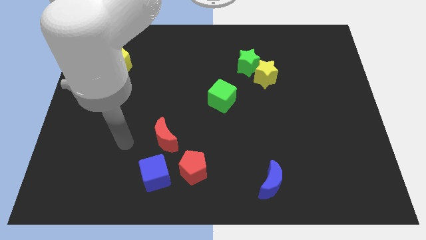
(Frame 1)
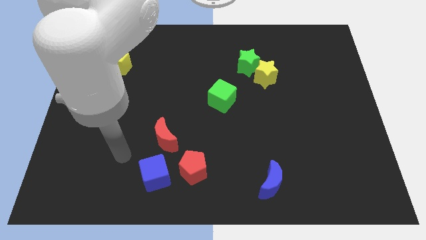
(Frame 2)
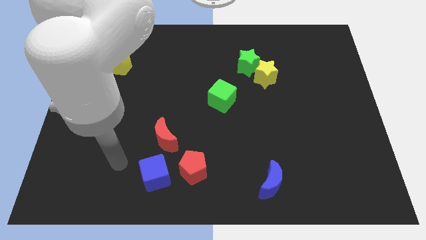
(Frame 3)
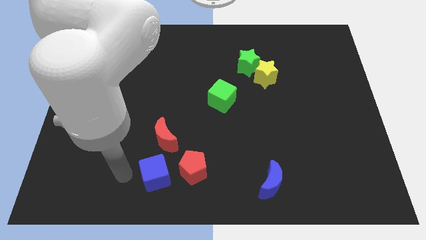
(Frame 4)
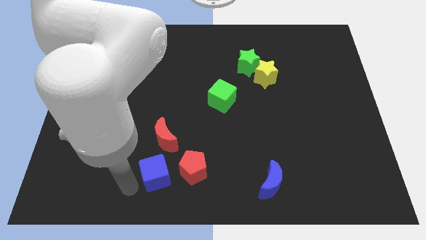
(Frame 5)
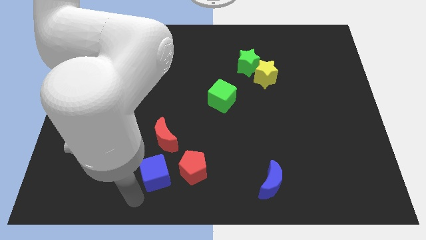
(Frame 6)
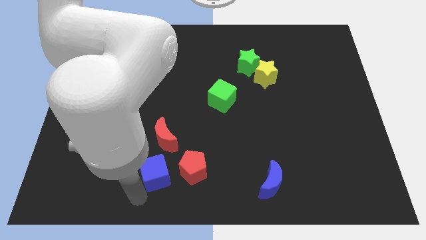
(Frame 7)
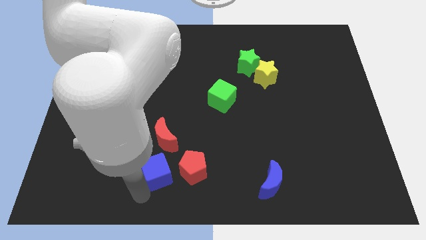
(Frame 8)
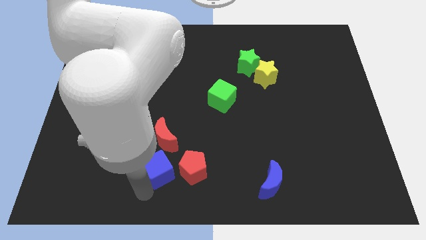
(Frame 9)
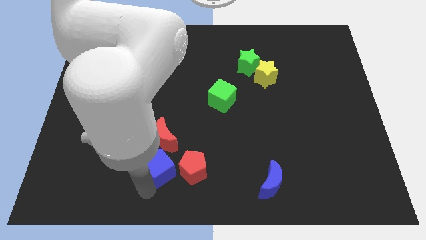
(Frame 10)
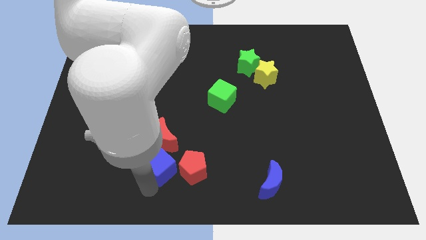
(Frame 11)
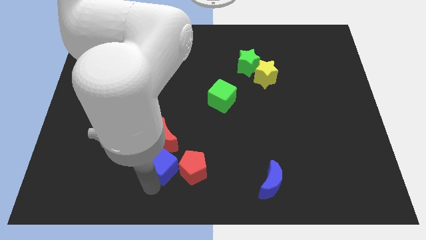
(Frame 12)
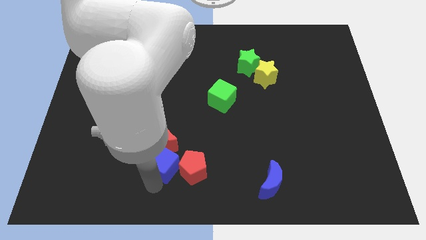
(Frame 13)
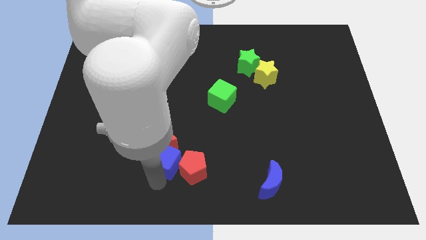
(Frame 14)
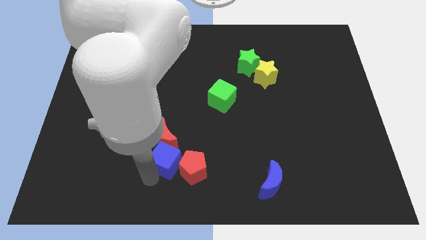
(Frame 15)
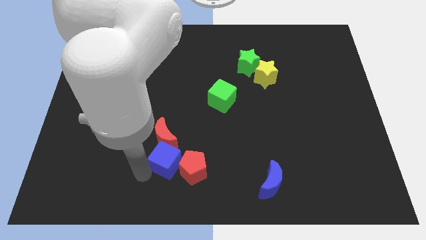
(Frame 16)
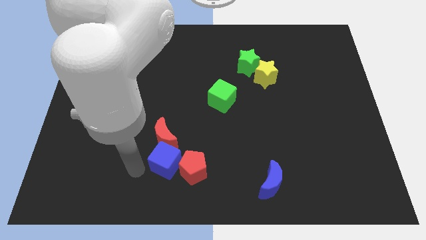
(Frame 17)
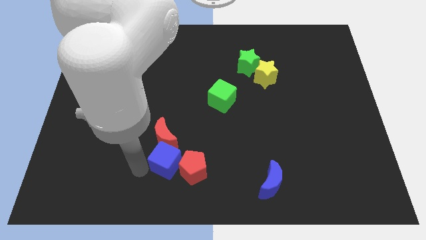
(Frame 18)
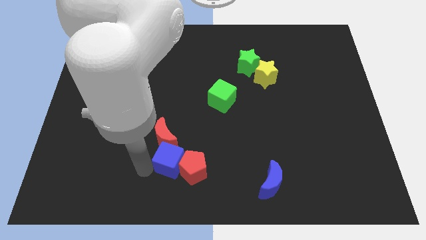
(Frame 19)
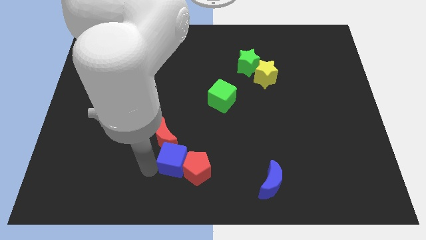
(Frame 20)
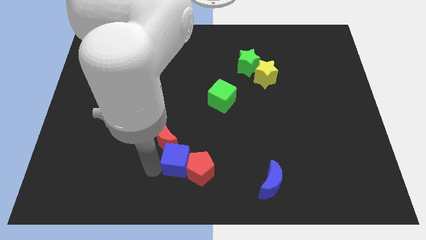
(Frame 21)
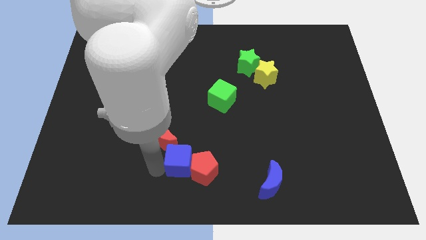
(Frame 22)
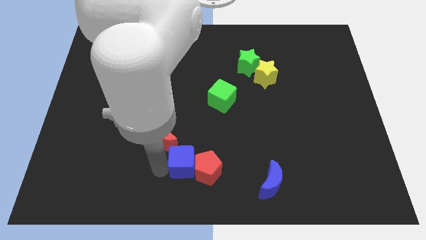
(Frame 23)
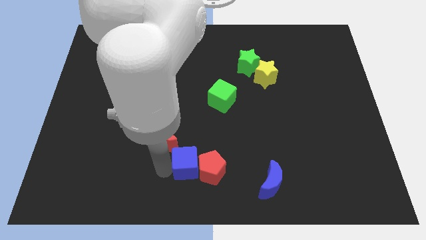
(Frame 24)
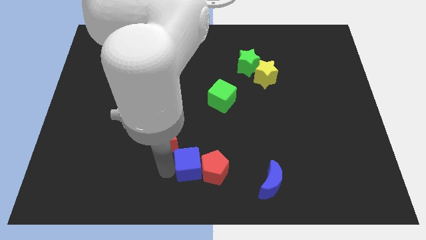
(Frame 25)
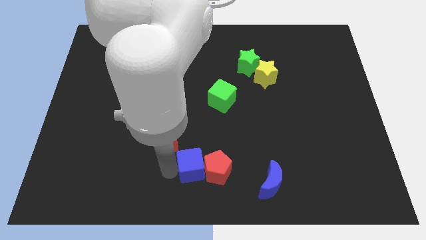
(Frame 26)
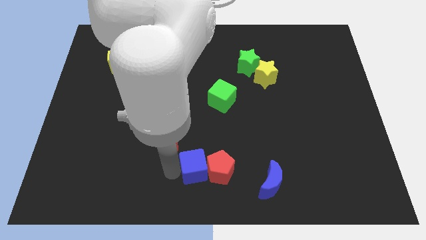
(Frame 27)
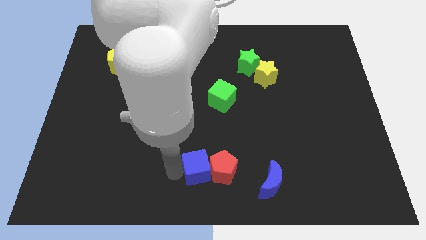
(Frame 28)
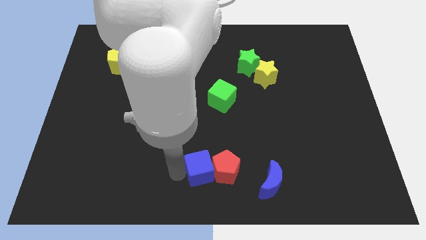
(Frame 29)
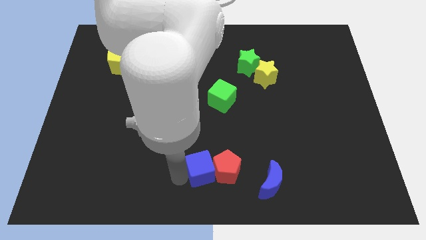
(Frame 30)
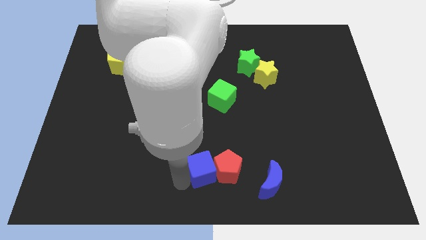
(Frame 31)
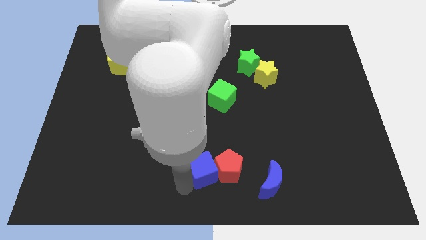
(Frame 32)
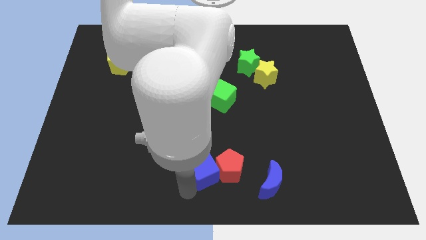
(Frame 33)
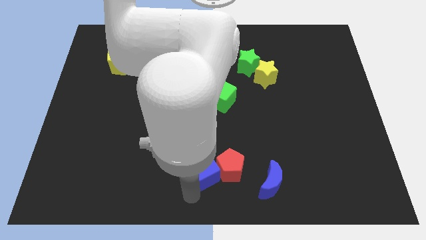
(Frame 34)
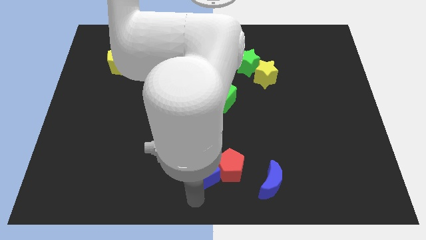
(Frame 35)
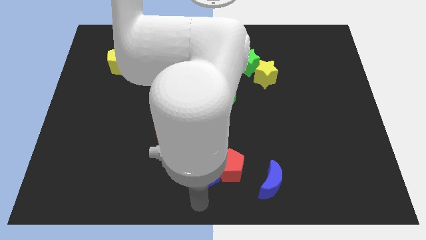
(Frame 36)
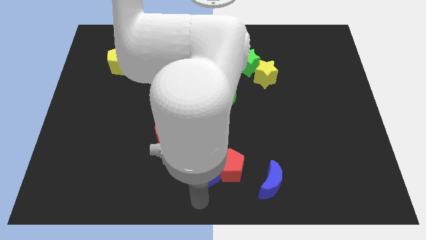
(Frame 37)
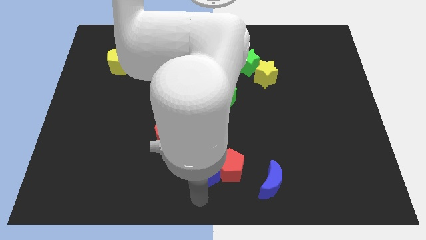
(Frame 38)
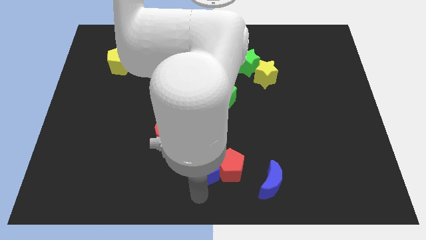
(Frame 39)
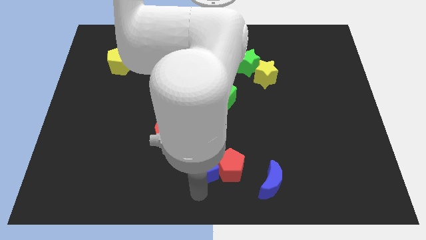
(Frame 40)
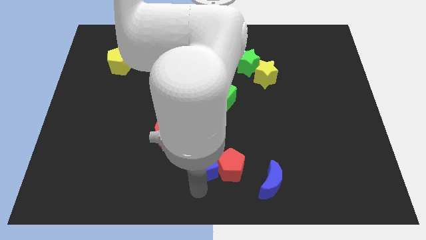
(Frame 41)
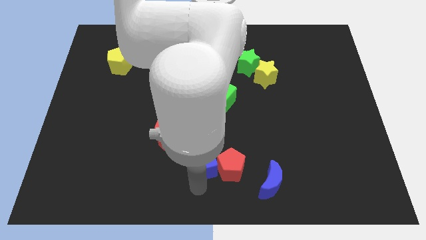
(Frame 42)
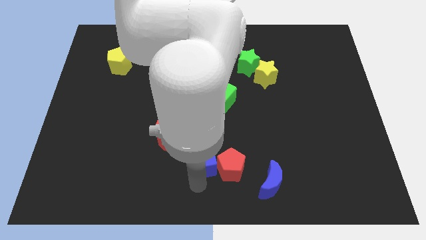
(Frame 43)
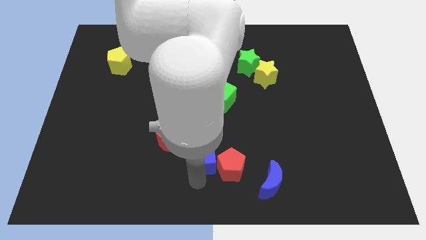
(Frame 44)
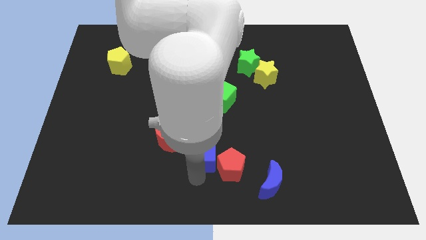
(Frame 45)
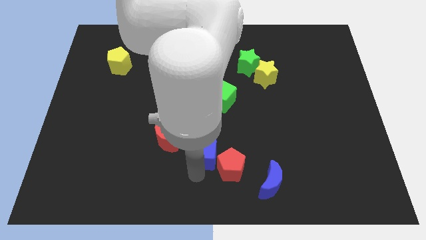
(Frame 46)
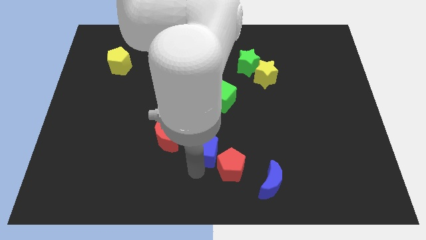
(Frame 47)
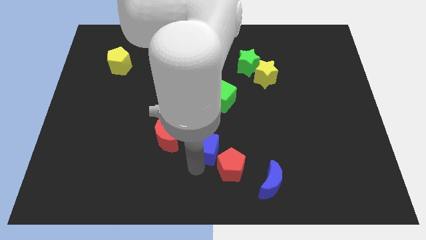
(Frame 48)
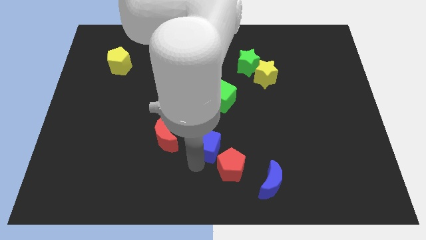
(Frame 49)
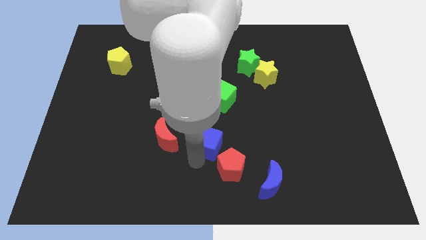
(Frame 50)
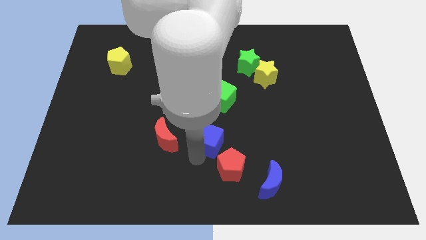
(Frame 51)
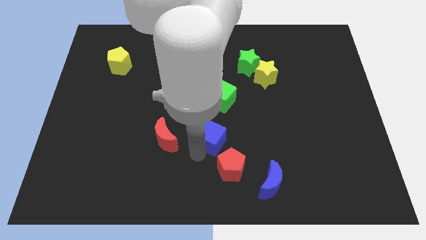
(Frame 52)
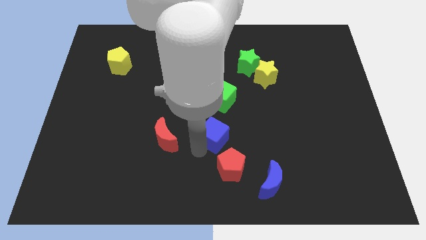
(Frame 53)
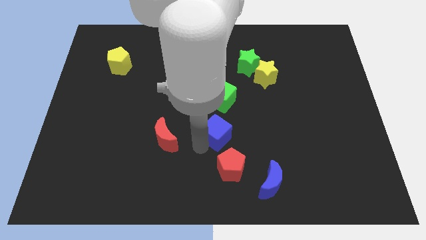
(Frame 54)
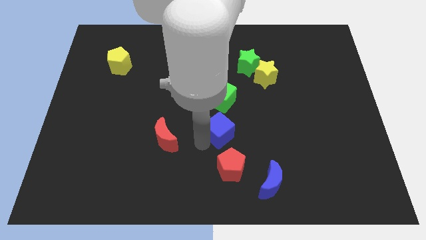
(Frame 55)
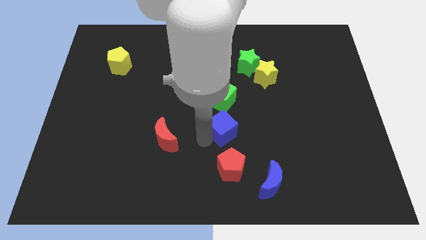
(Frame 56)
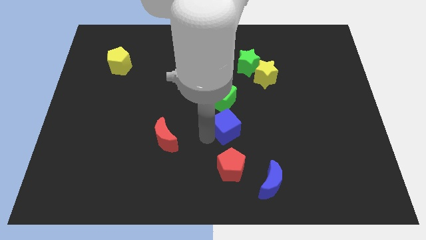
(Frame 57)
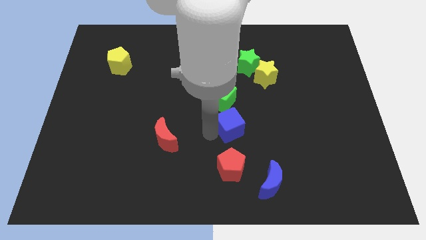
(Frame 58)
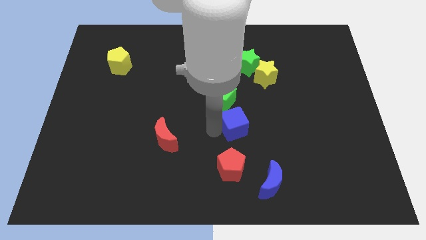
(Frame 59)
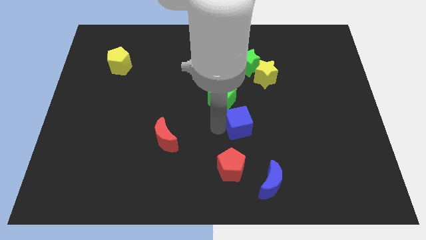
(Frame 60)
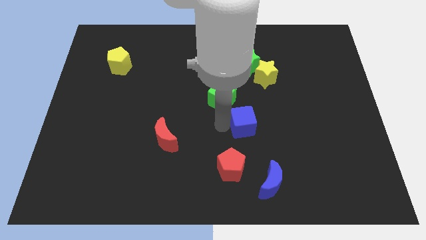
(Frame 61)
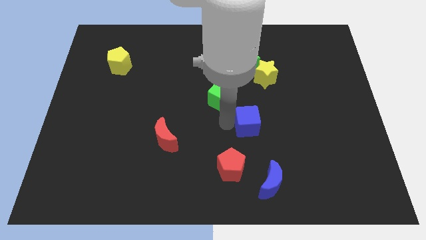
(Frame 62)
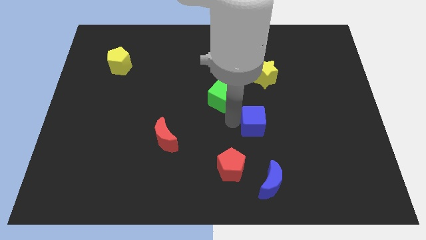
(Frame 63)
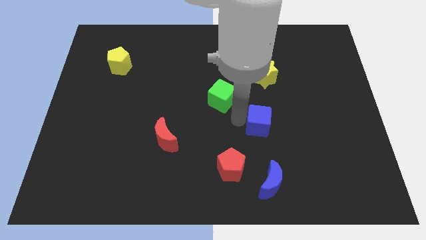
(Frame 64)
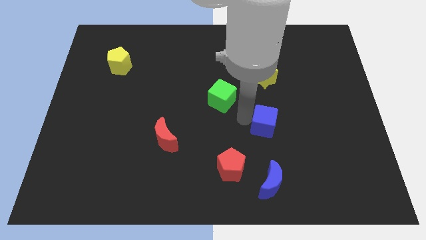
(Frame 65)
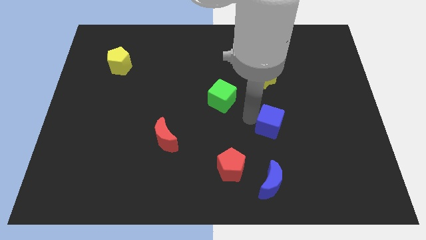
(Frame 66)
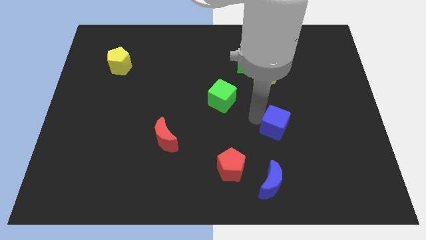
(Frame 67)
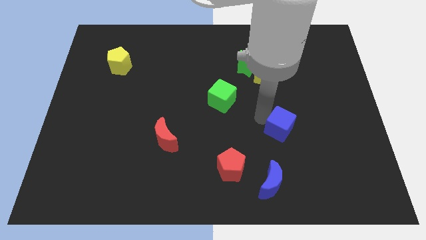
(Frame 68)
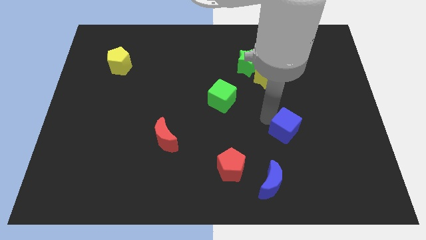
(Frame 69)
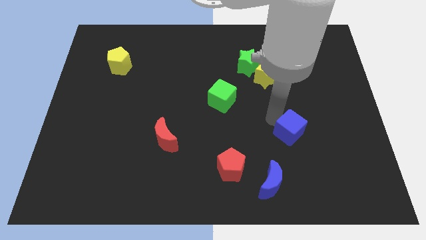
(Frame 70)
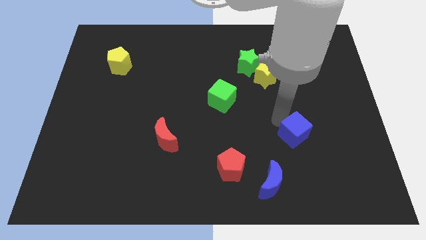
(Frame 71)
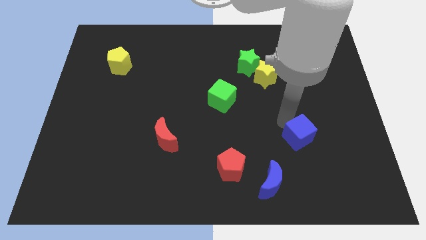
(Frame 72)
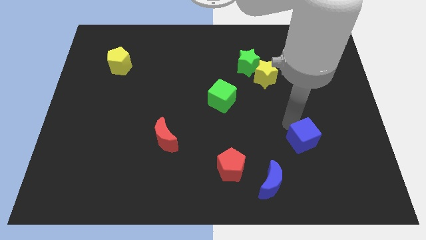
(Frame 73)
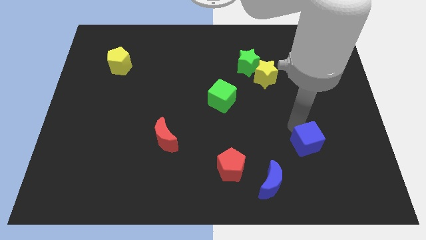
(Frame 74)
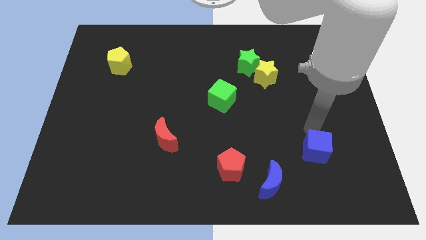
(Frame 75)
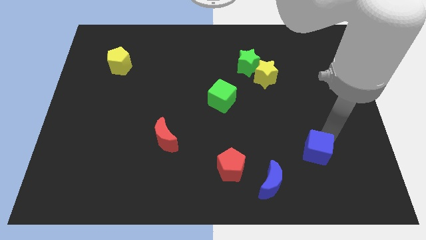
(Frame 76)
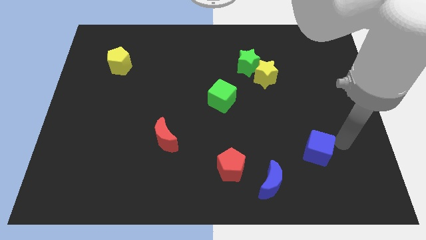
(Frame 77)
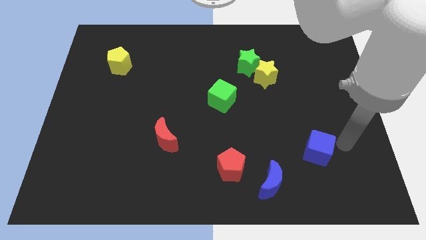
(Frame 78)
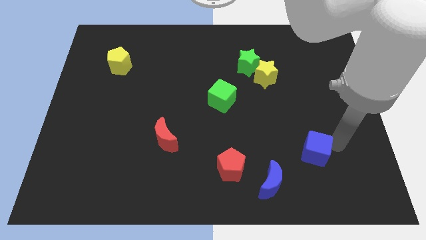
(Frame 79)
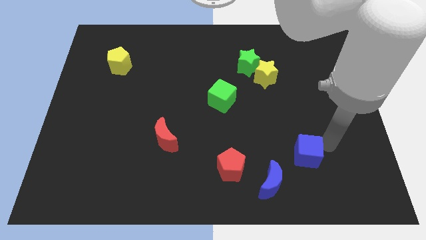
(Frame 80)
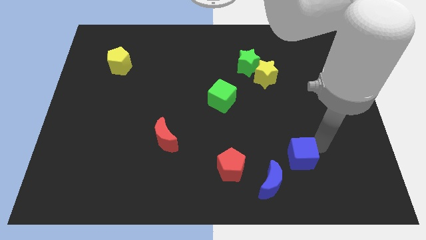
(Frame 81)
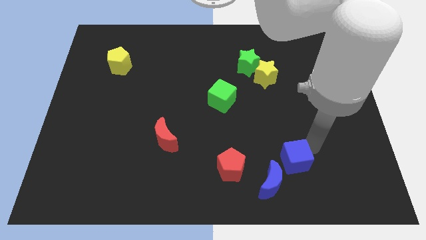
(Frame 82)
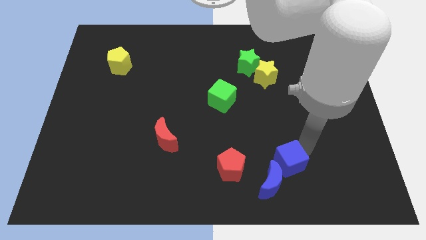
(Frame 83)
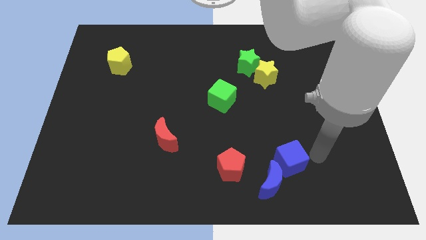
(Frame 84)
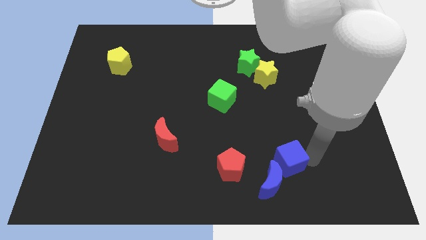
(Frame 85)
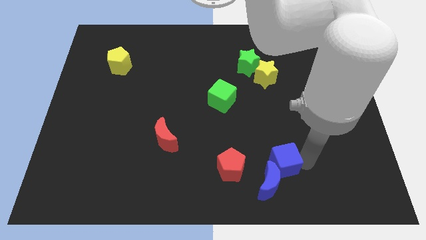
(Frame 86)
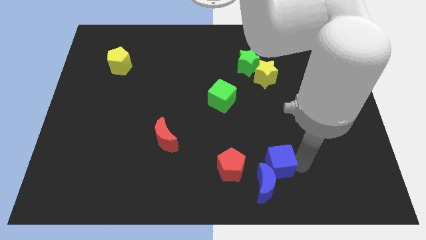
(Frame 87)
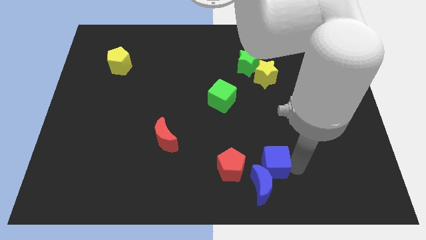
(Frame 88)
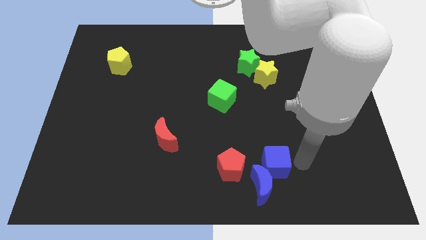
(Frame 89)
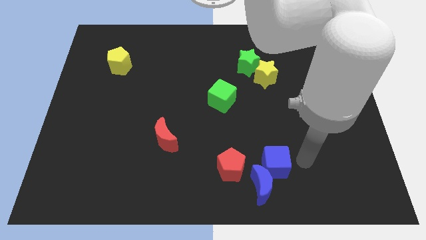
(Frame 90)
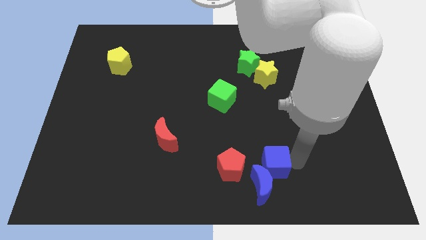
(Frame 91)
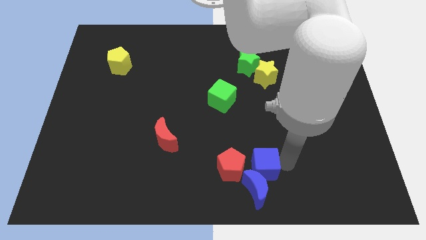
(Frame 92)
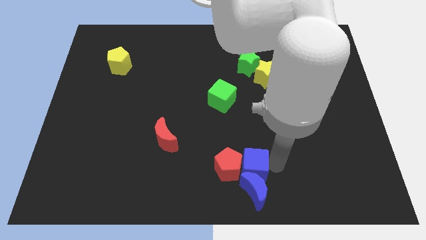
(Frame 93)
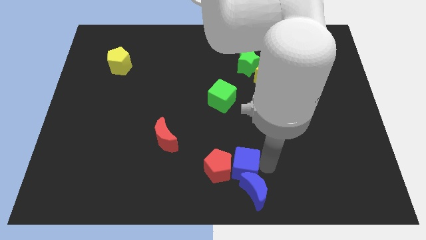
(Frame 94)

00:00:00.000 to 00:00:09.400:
put the blue cube to the right side of the red pentagon
